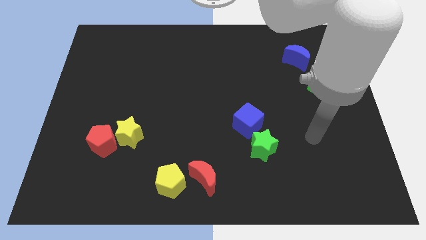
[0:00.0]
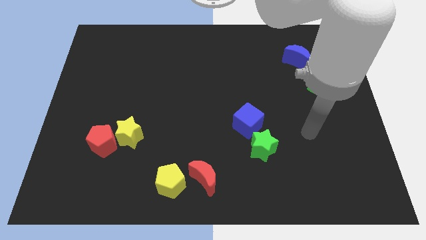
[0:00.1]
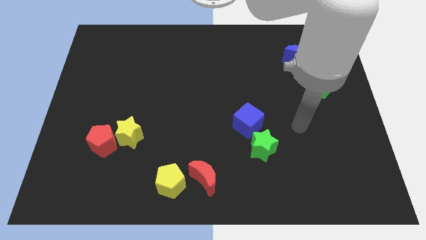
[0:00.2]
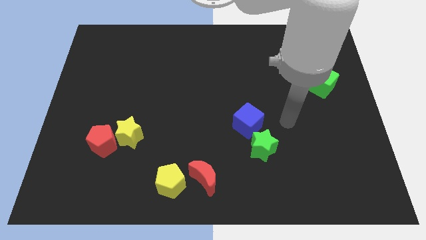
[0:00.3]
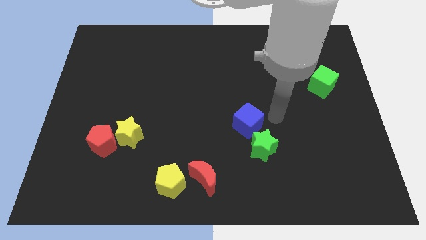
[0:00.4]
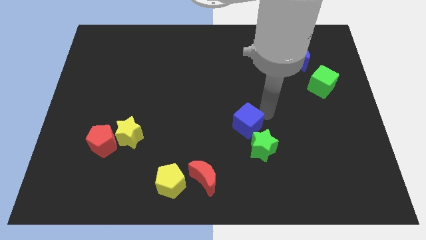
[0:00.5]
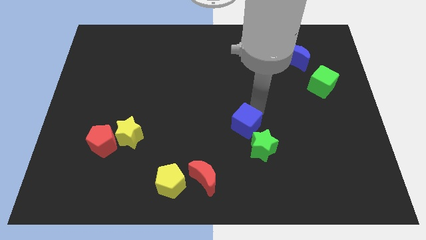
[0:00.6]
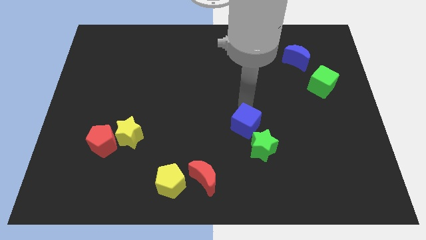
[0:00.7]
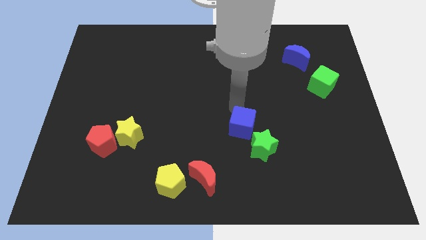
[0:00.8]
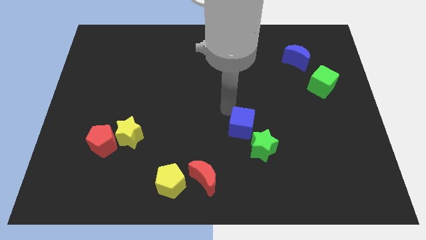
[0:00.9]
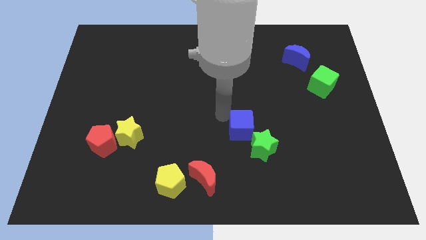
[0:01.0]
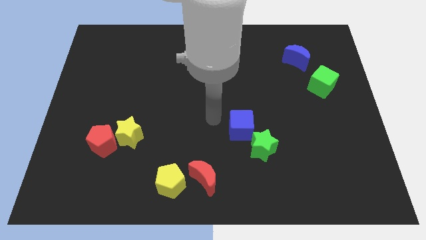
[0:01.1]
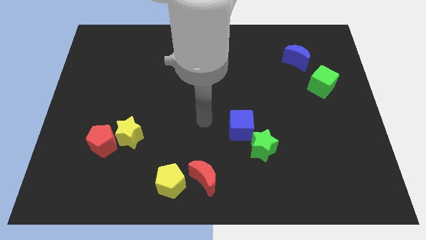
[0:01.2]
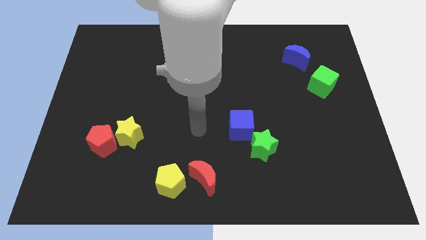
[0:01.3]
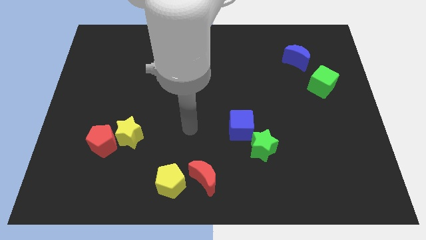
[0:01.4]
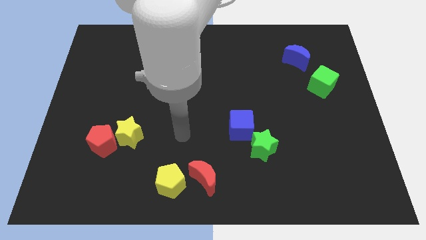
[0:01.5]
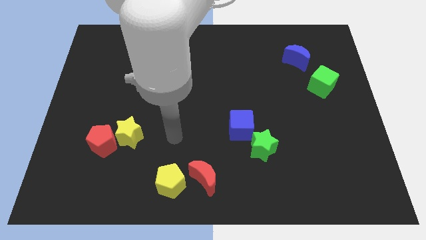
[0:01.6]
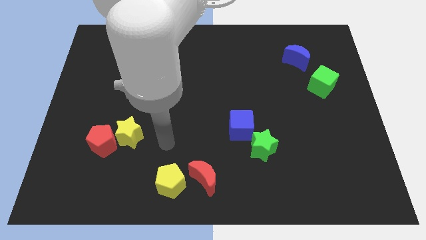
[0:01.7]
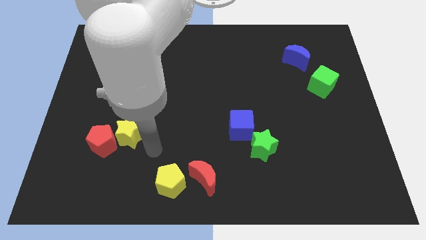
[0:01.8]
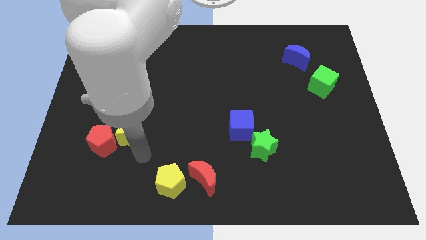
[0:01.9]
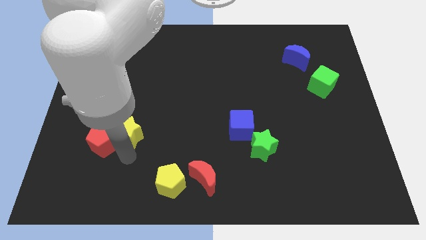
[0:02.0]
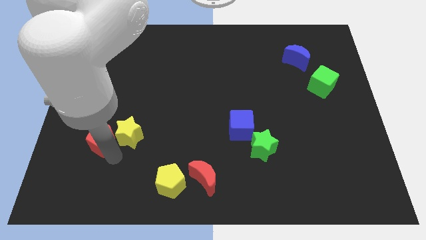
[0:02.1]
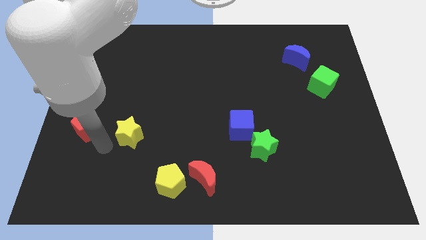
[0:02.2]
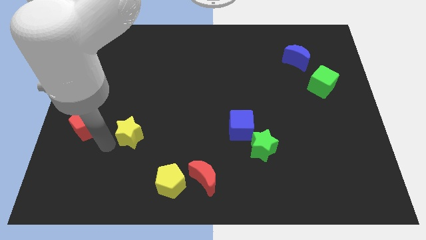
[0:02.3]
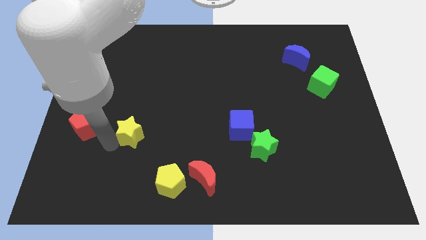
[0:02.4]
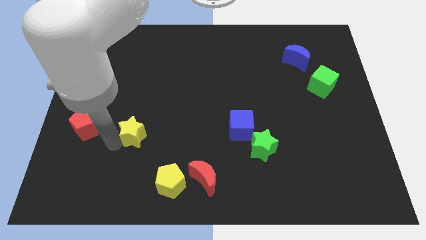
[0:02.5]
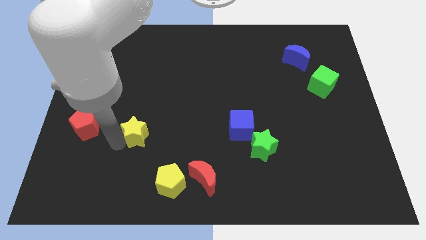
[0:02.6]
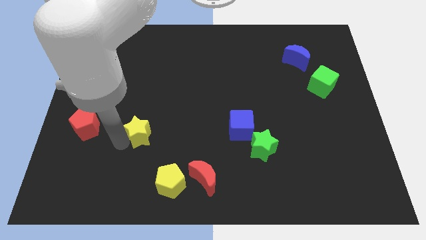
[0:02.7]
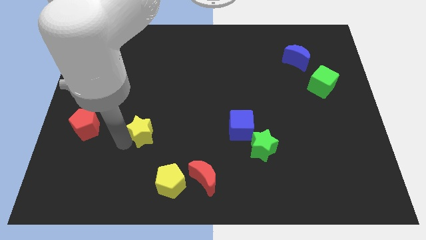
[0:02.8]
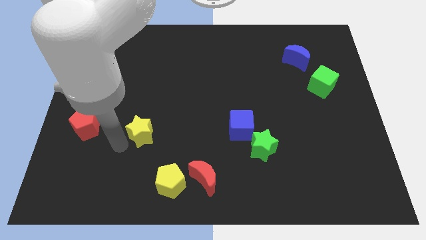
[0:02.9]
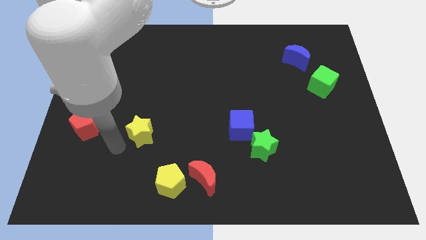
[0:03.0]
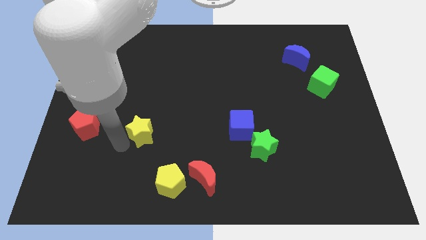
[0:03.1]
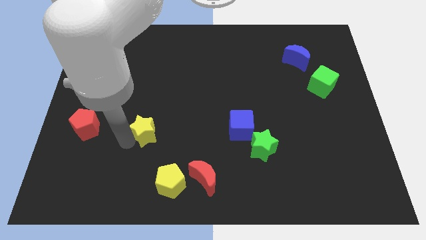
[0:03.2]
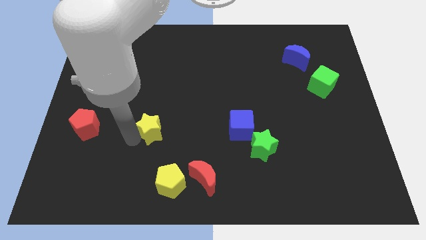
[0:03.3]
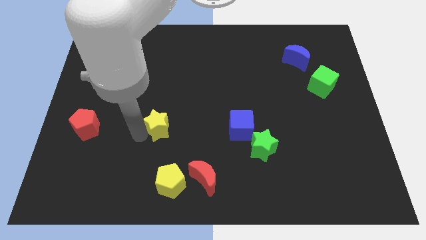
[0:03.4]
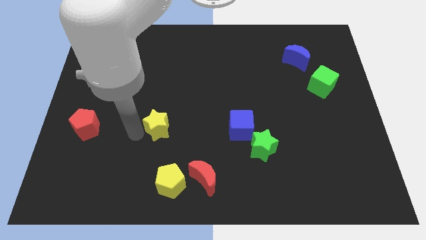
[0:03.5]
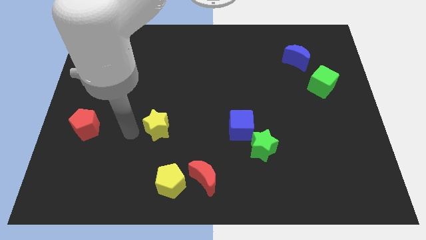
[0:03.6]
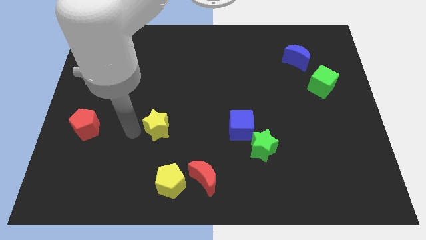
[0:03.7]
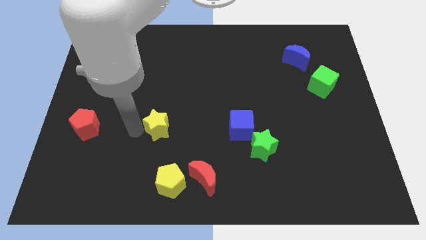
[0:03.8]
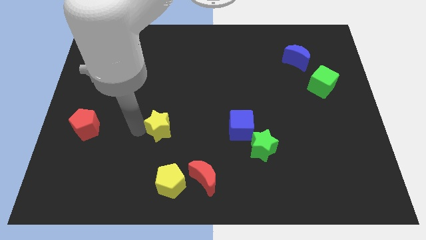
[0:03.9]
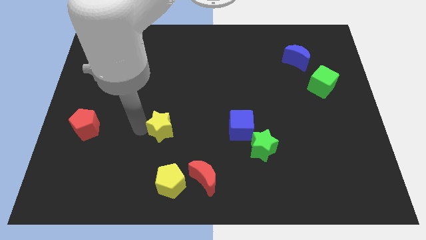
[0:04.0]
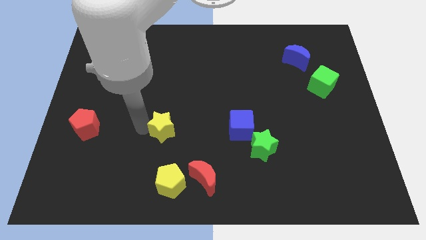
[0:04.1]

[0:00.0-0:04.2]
slightly slide the yellow star right

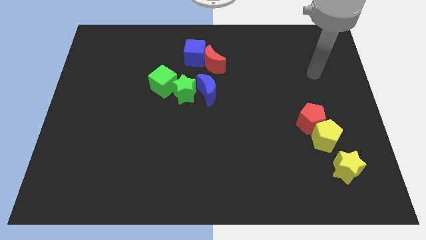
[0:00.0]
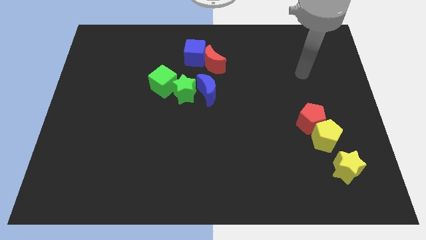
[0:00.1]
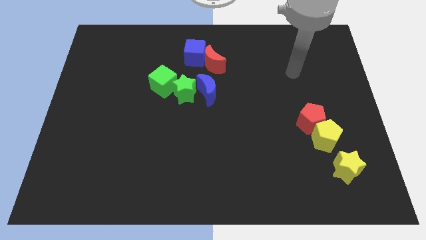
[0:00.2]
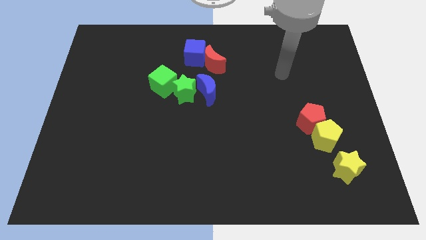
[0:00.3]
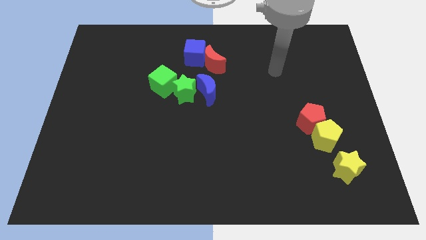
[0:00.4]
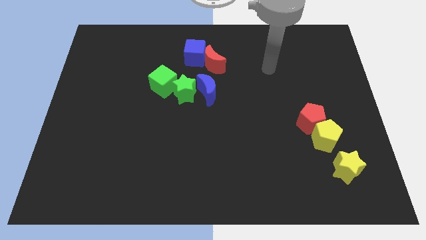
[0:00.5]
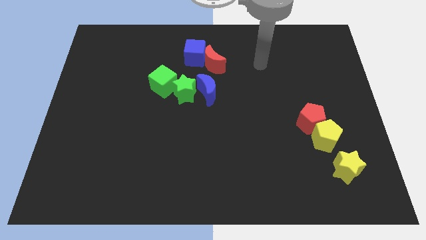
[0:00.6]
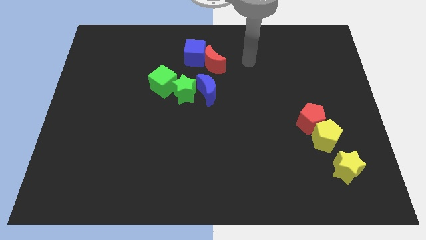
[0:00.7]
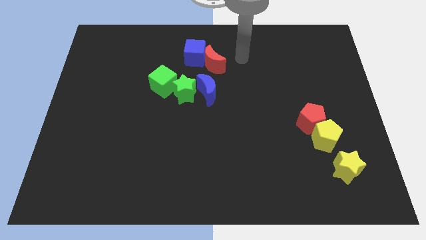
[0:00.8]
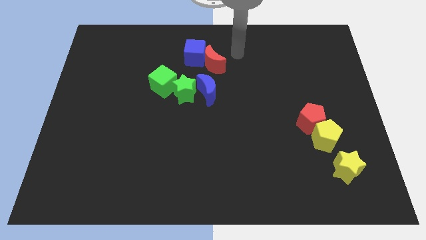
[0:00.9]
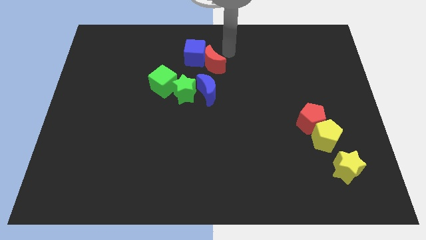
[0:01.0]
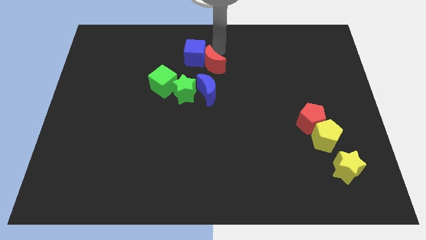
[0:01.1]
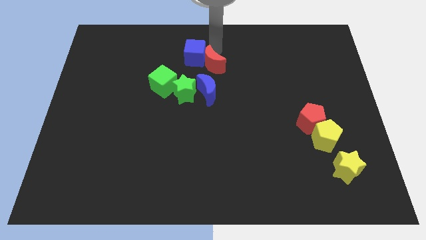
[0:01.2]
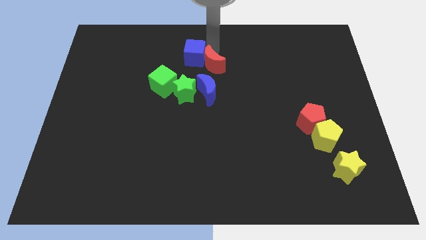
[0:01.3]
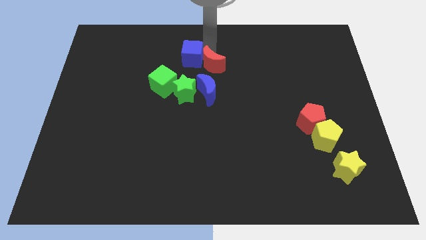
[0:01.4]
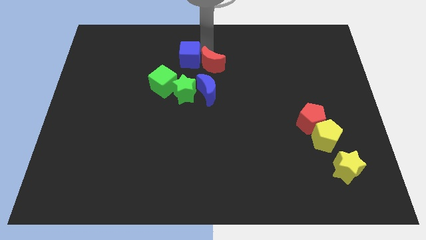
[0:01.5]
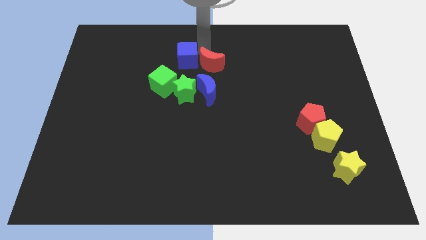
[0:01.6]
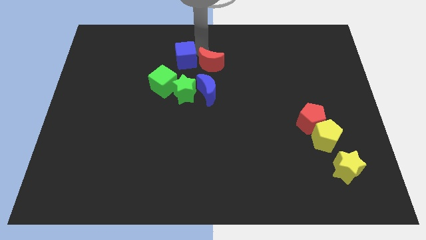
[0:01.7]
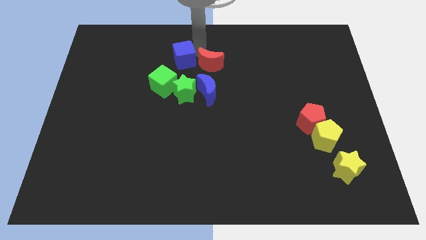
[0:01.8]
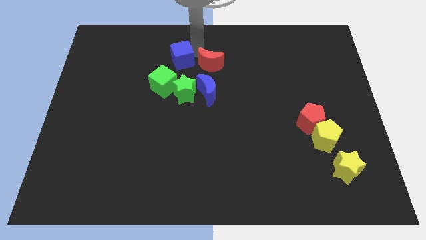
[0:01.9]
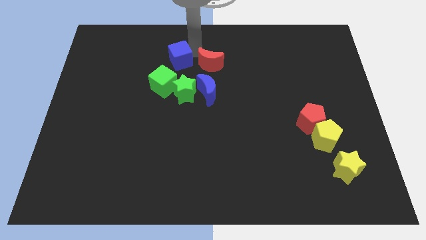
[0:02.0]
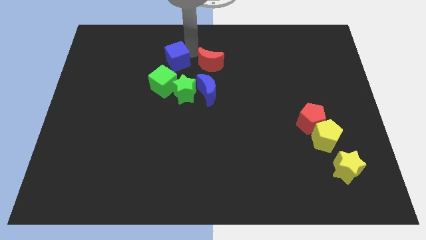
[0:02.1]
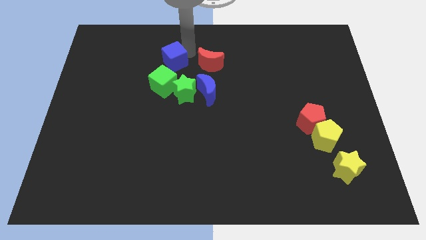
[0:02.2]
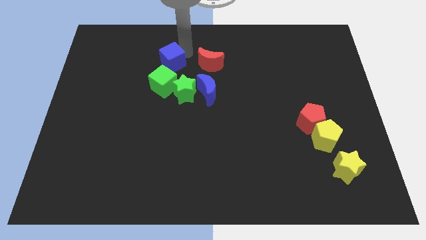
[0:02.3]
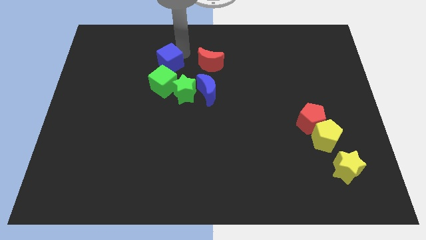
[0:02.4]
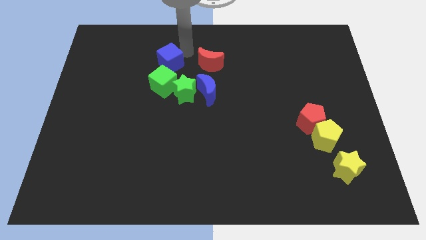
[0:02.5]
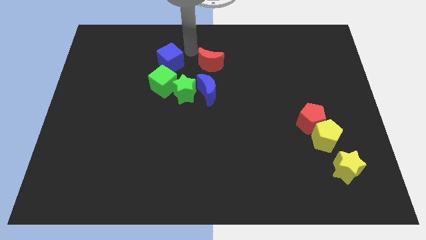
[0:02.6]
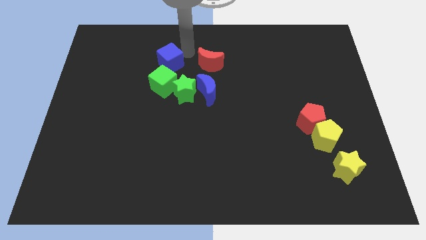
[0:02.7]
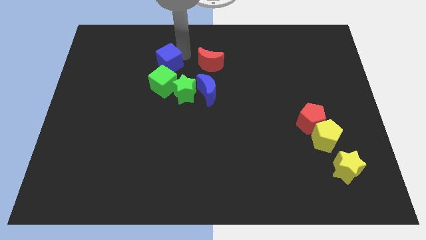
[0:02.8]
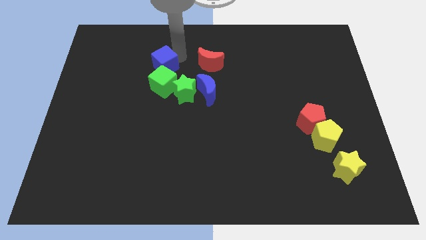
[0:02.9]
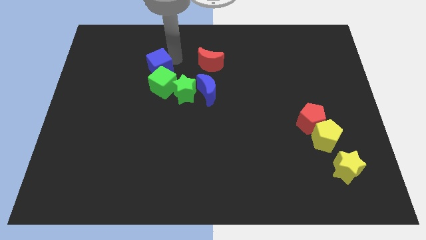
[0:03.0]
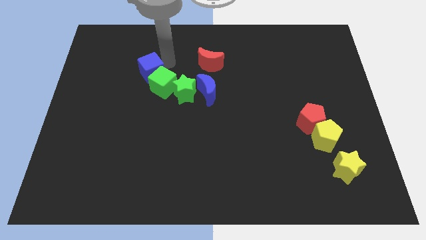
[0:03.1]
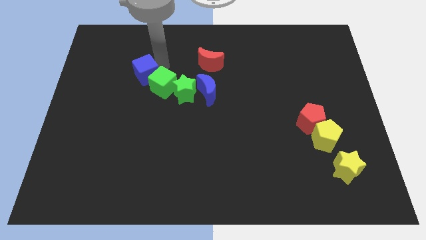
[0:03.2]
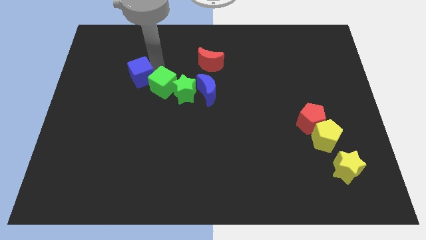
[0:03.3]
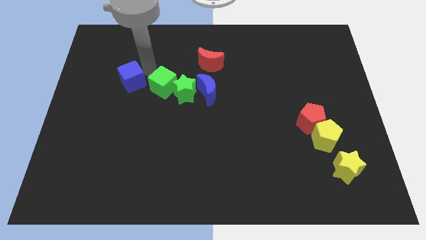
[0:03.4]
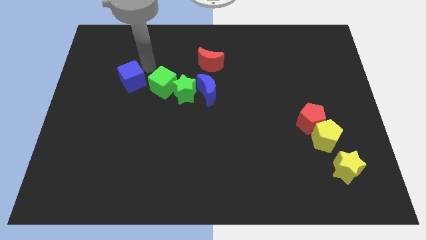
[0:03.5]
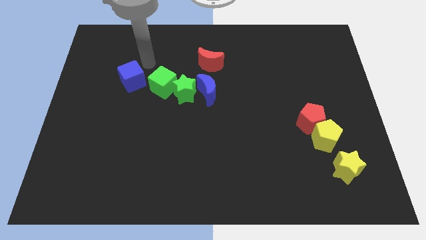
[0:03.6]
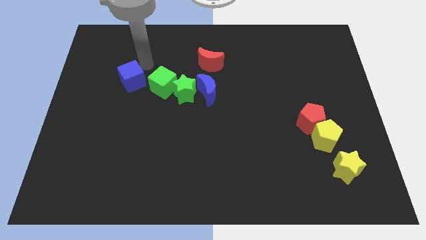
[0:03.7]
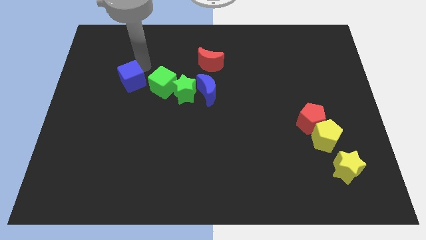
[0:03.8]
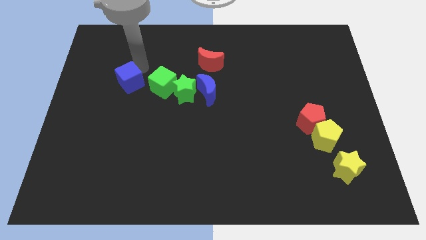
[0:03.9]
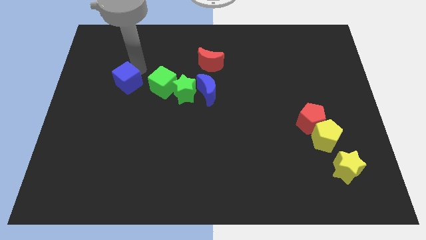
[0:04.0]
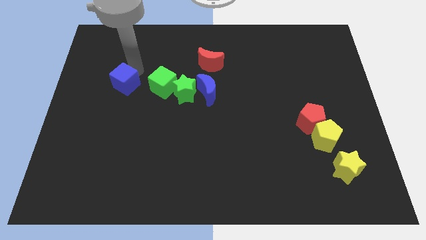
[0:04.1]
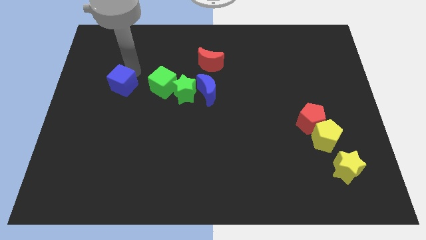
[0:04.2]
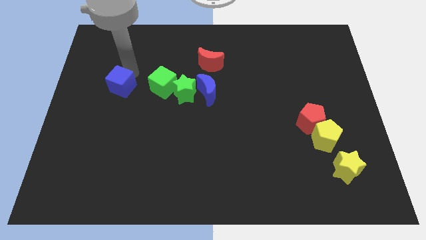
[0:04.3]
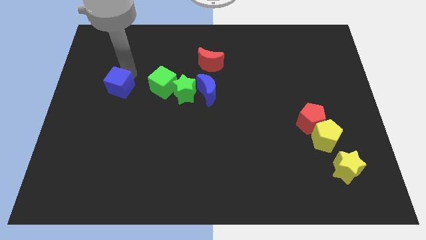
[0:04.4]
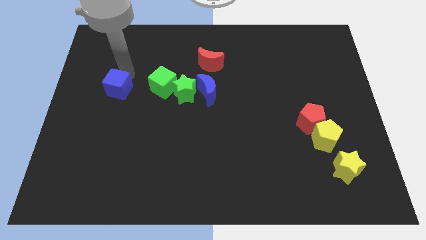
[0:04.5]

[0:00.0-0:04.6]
push the blue cube diagonally downwards and left
